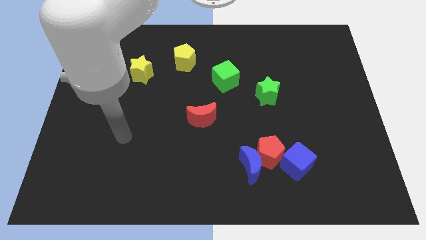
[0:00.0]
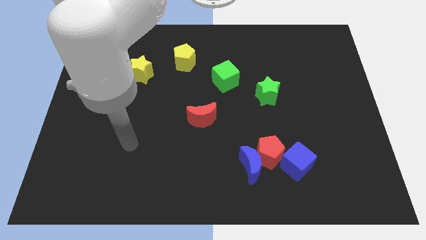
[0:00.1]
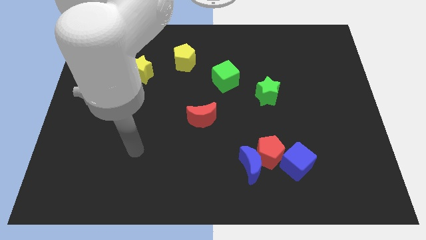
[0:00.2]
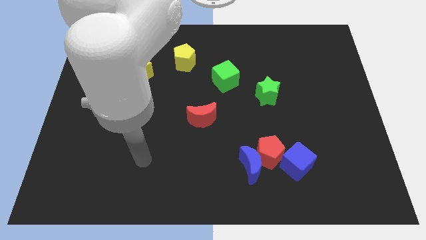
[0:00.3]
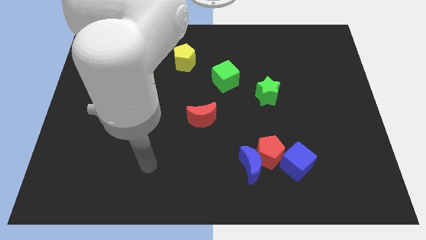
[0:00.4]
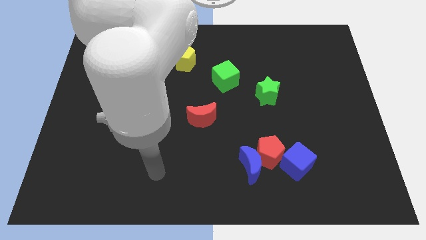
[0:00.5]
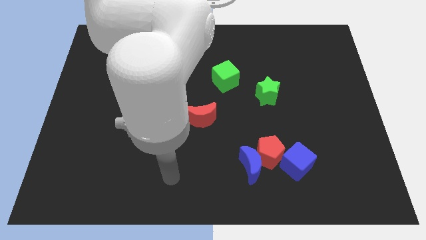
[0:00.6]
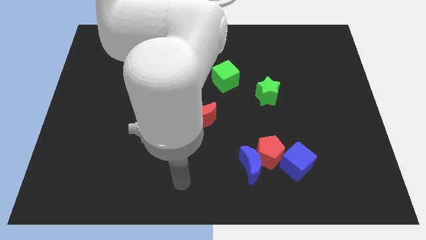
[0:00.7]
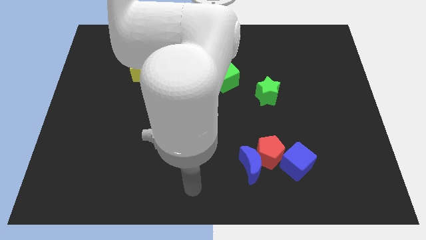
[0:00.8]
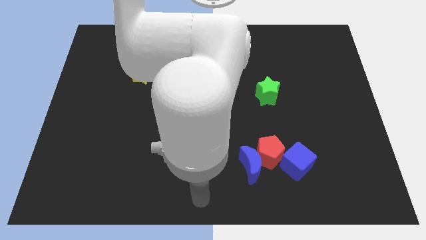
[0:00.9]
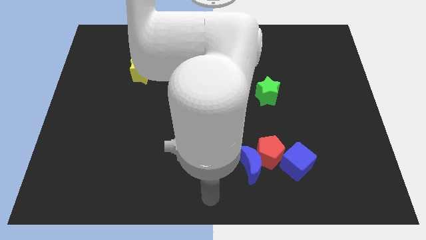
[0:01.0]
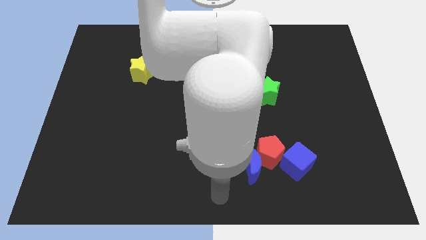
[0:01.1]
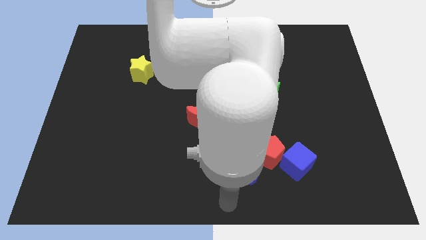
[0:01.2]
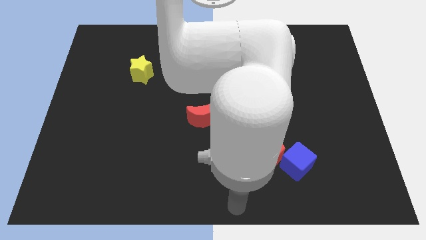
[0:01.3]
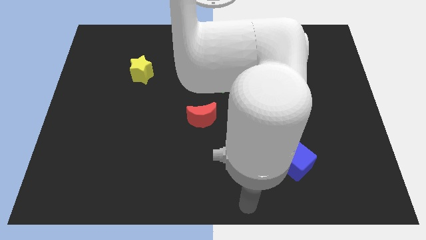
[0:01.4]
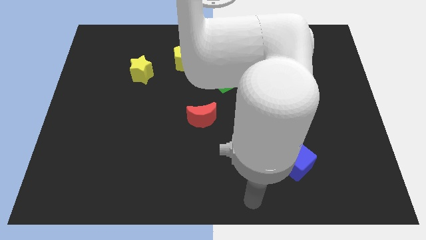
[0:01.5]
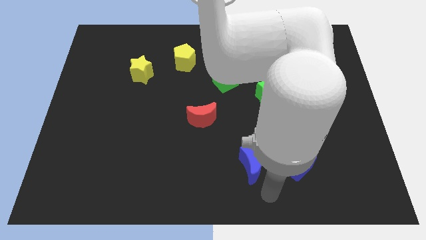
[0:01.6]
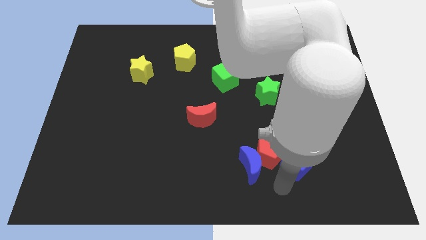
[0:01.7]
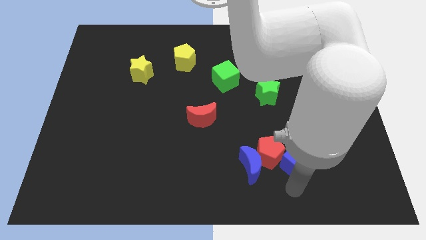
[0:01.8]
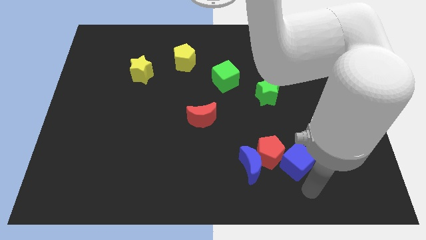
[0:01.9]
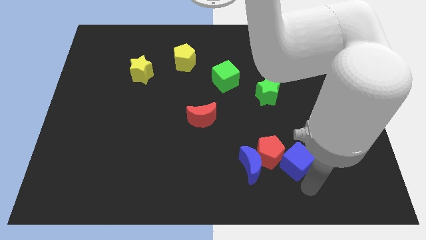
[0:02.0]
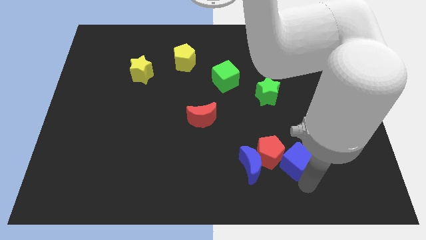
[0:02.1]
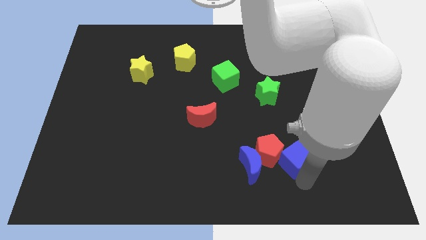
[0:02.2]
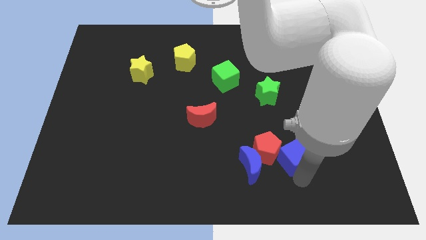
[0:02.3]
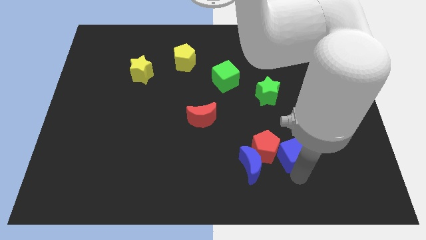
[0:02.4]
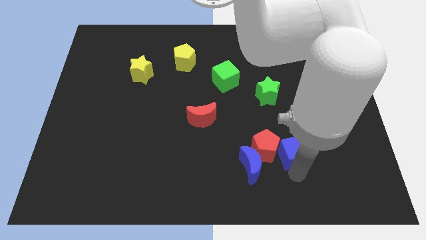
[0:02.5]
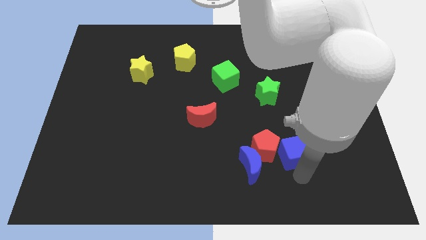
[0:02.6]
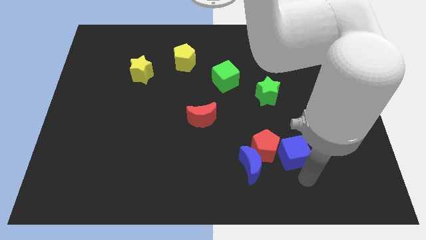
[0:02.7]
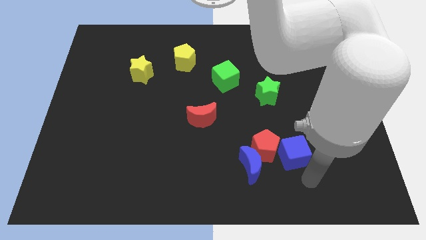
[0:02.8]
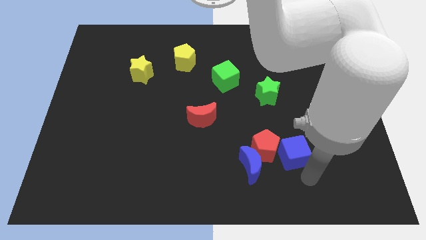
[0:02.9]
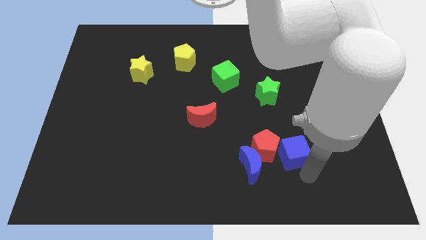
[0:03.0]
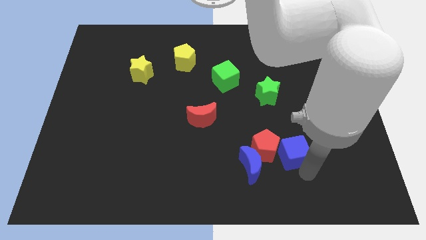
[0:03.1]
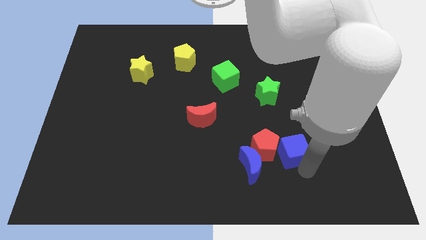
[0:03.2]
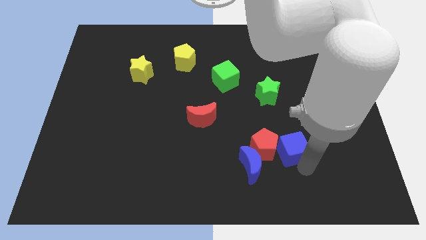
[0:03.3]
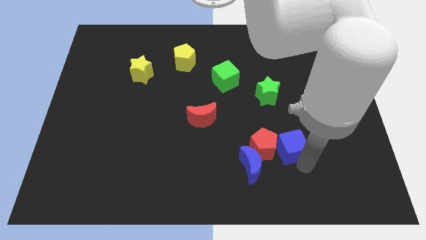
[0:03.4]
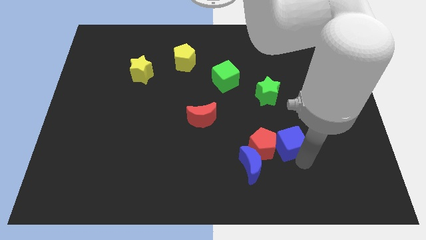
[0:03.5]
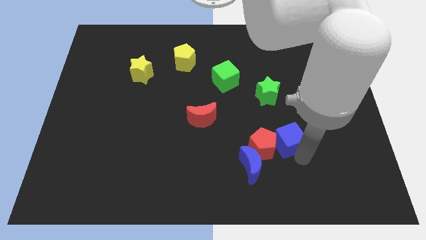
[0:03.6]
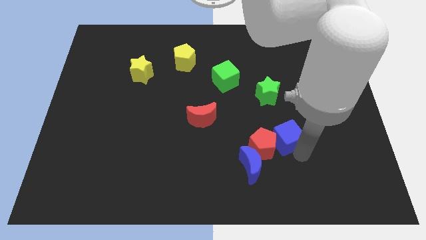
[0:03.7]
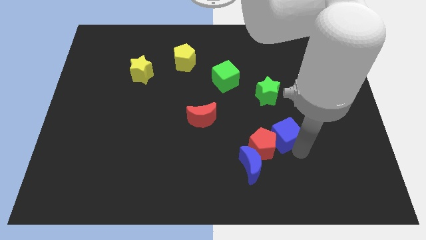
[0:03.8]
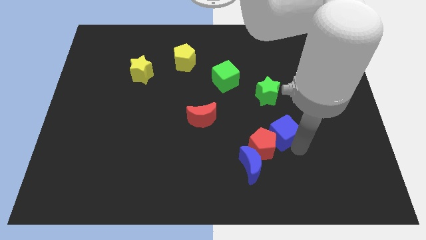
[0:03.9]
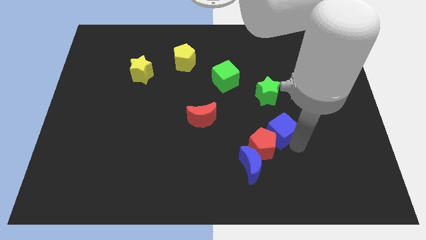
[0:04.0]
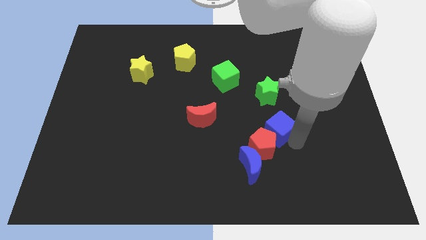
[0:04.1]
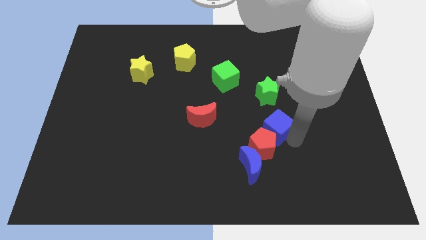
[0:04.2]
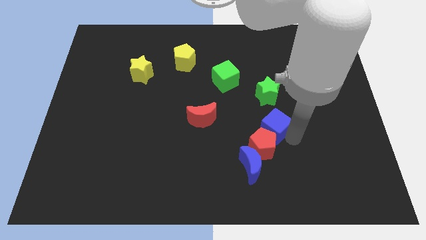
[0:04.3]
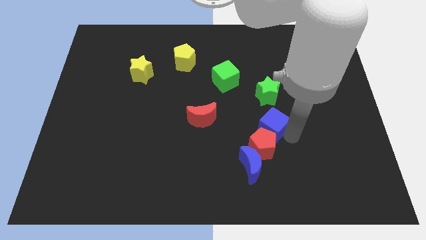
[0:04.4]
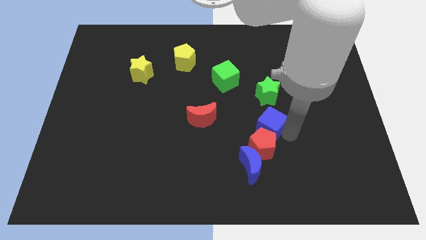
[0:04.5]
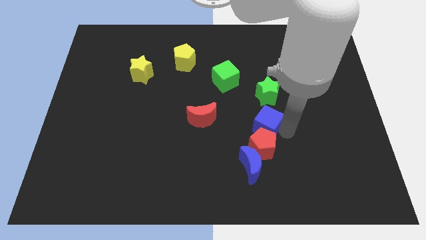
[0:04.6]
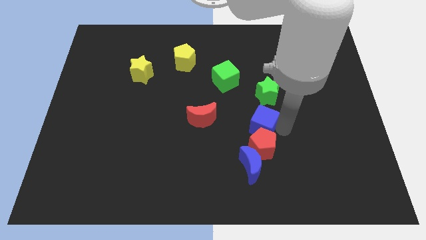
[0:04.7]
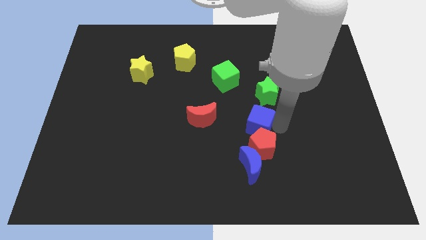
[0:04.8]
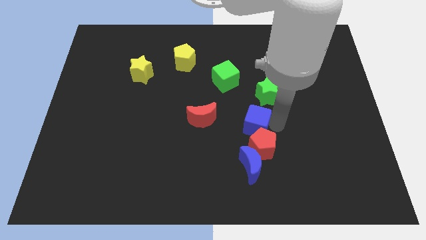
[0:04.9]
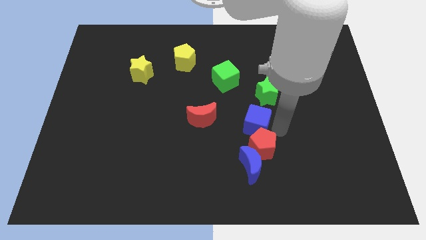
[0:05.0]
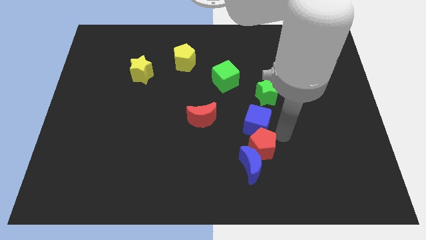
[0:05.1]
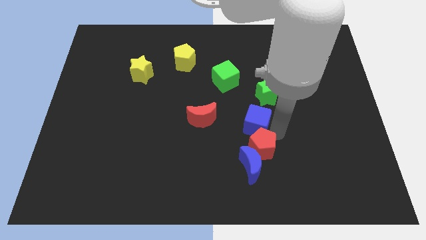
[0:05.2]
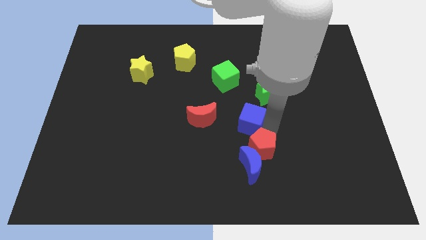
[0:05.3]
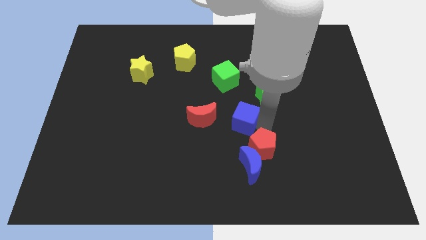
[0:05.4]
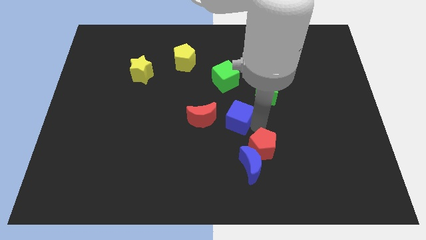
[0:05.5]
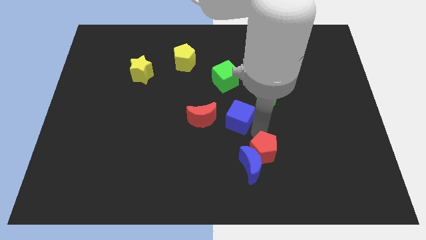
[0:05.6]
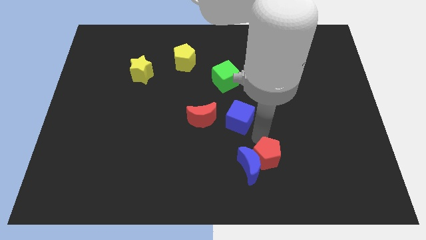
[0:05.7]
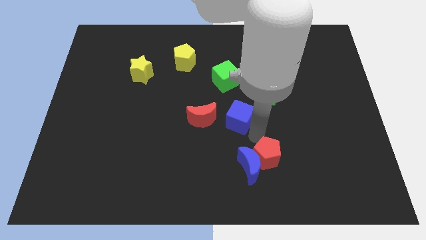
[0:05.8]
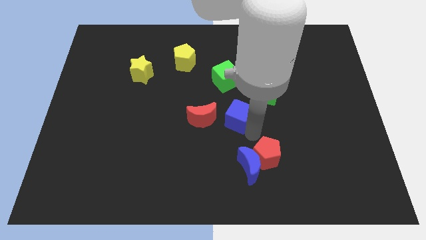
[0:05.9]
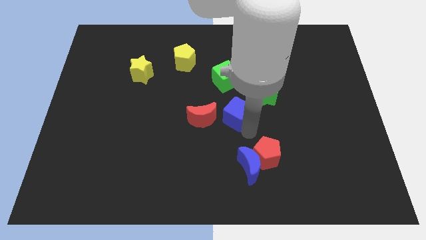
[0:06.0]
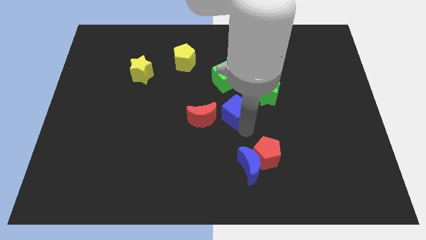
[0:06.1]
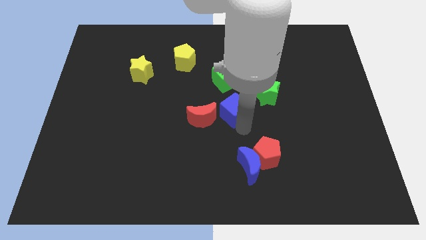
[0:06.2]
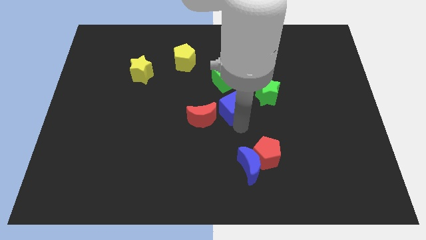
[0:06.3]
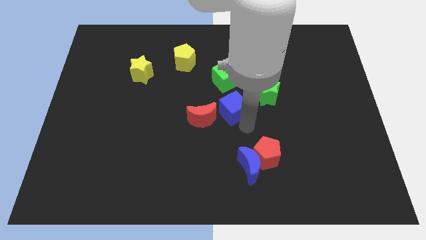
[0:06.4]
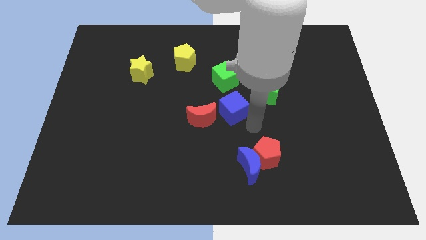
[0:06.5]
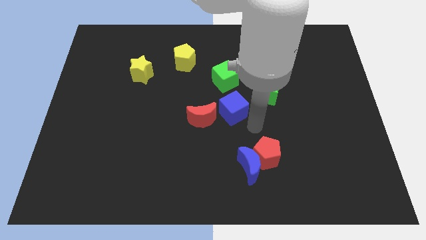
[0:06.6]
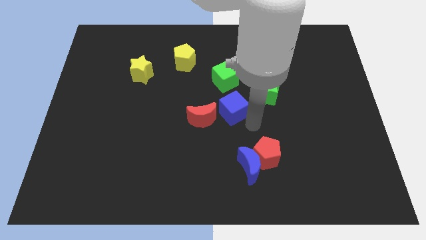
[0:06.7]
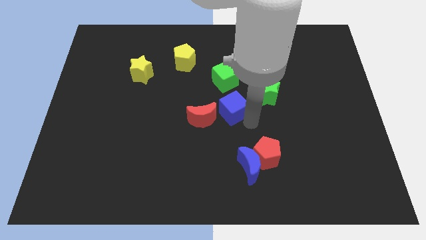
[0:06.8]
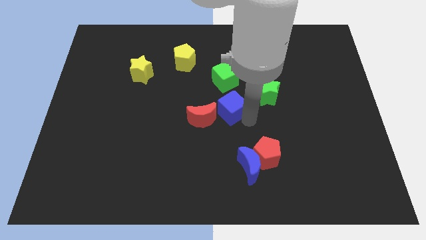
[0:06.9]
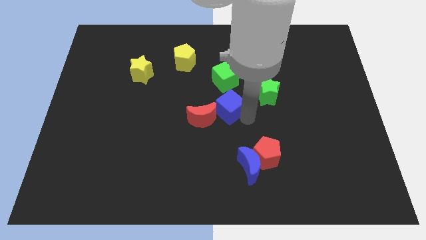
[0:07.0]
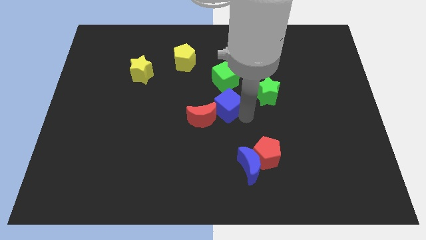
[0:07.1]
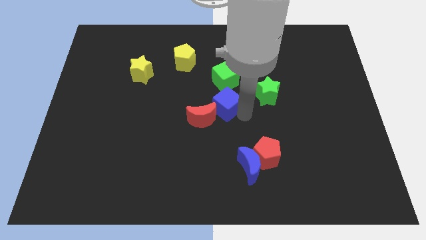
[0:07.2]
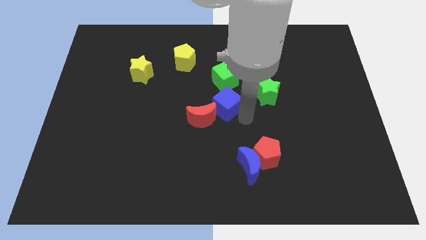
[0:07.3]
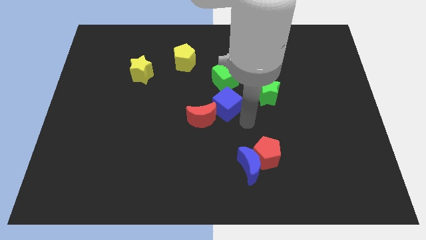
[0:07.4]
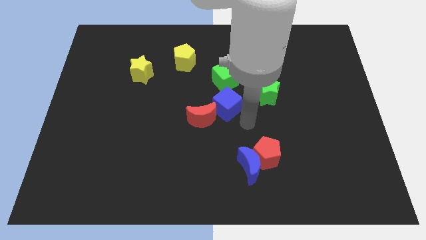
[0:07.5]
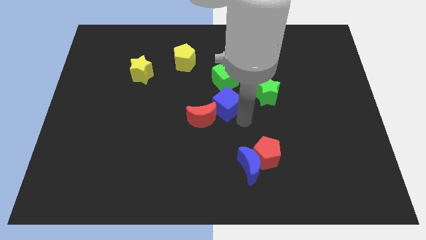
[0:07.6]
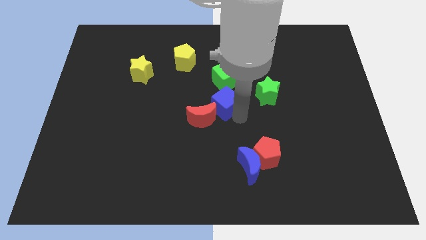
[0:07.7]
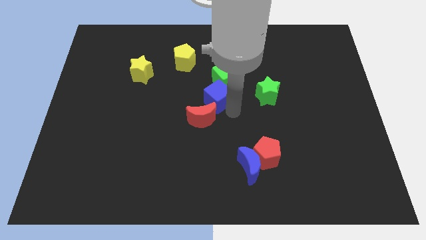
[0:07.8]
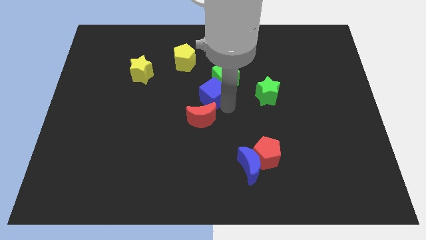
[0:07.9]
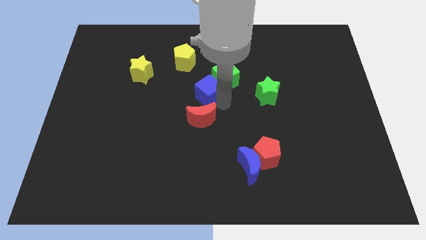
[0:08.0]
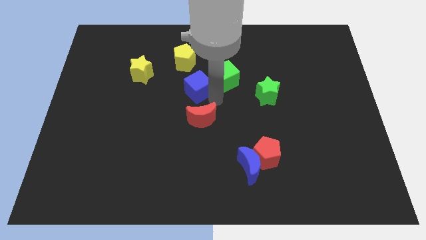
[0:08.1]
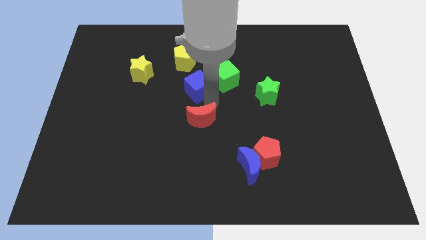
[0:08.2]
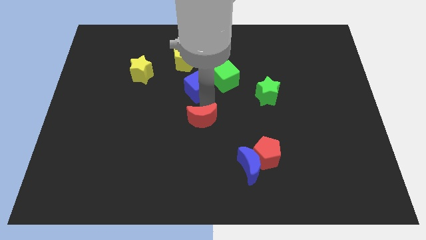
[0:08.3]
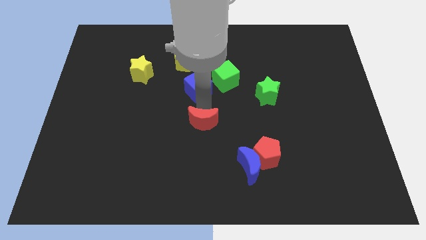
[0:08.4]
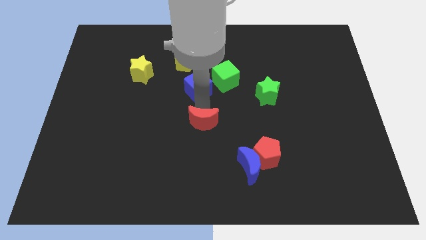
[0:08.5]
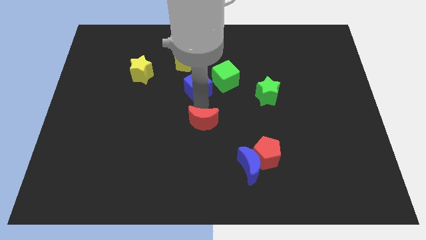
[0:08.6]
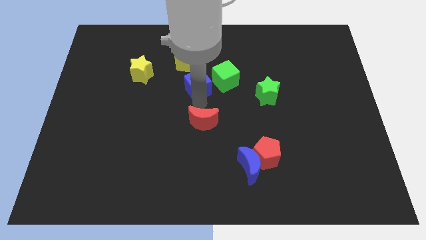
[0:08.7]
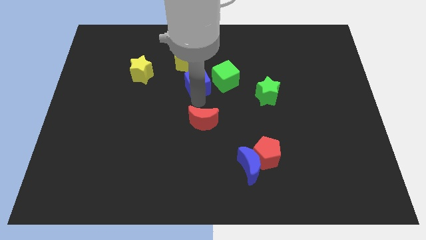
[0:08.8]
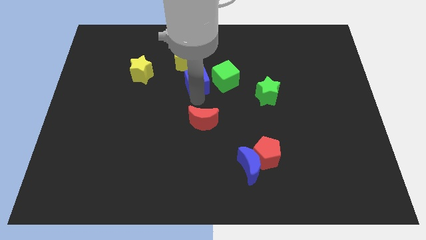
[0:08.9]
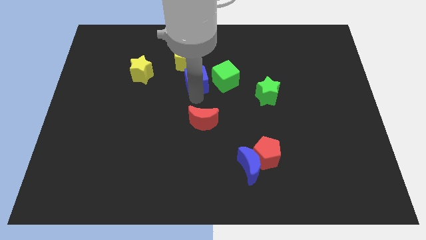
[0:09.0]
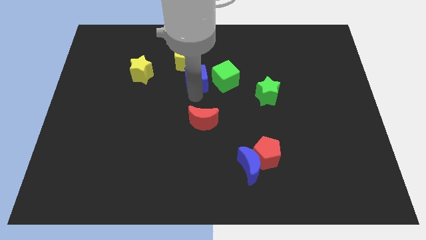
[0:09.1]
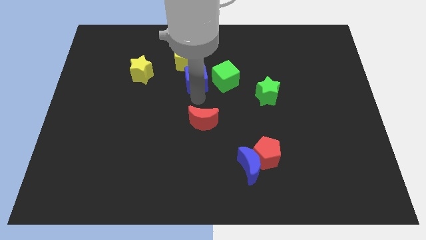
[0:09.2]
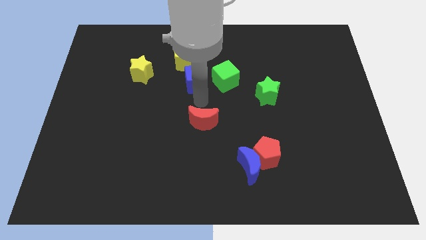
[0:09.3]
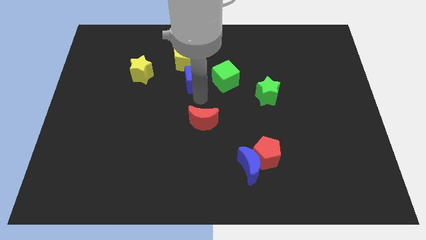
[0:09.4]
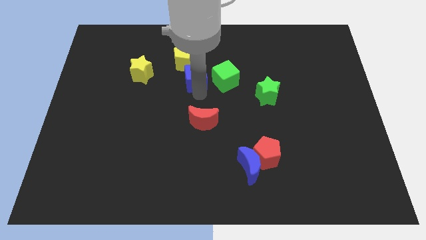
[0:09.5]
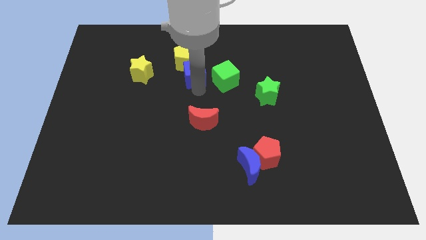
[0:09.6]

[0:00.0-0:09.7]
slide the blue cube towards the yellow pentagon
